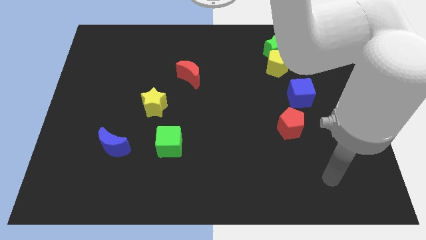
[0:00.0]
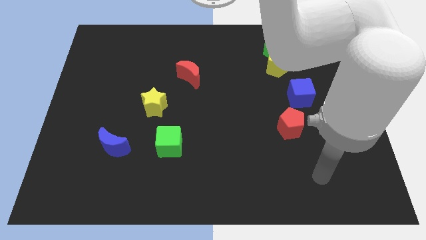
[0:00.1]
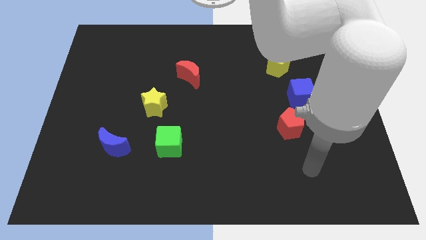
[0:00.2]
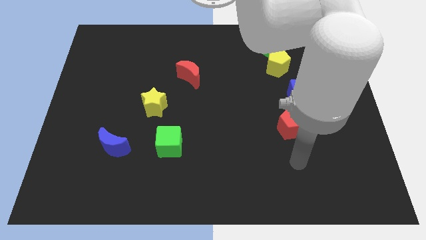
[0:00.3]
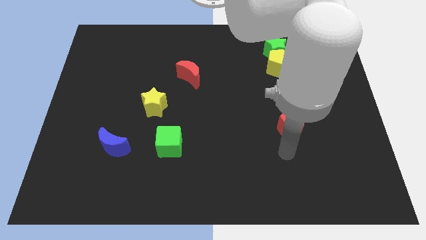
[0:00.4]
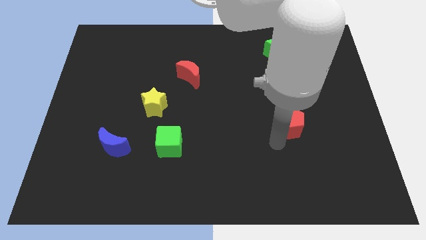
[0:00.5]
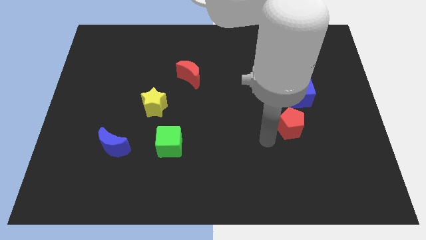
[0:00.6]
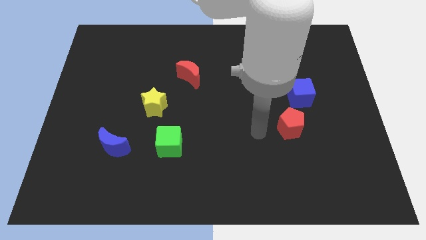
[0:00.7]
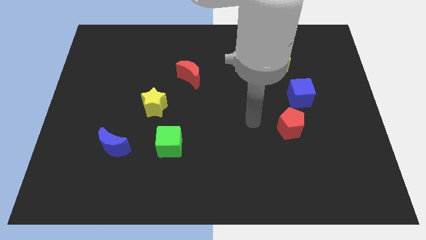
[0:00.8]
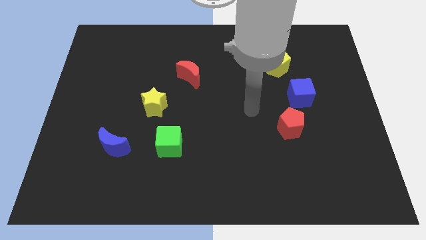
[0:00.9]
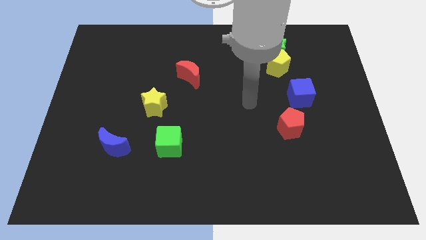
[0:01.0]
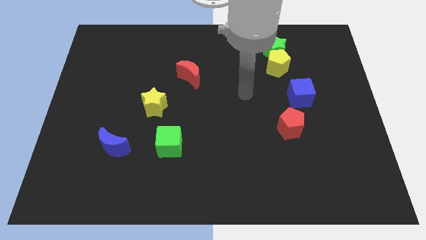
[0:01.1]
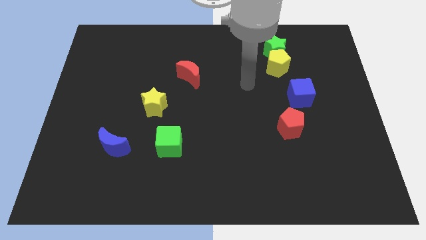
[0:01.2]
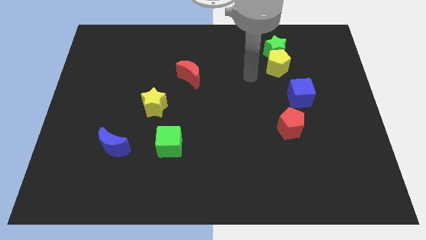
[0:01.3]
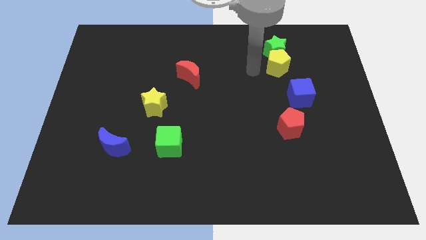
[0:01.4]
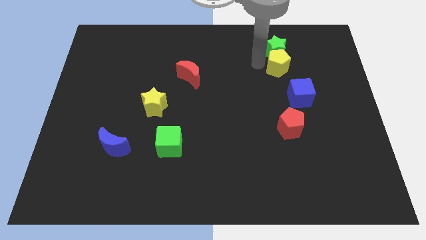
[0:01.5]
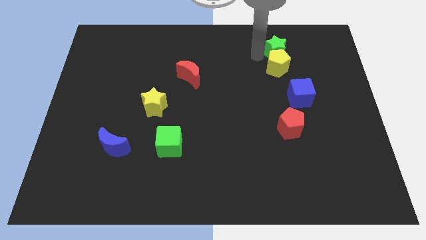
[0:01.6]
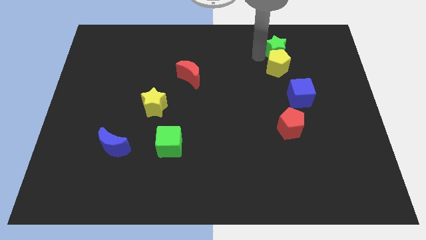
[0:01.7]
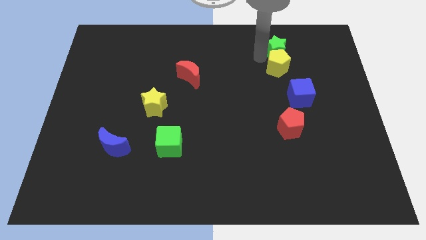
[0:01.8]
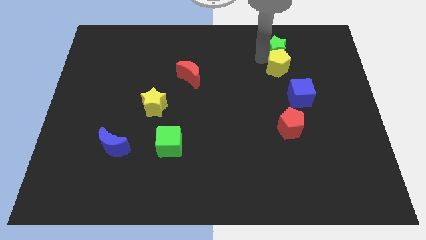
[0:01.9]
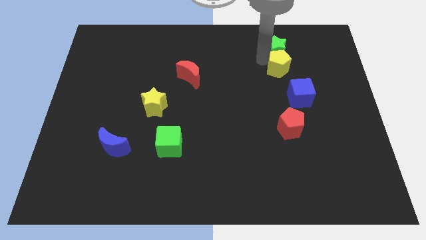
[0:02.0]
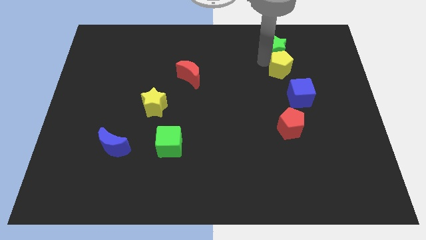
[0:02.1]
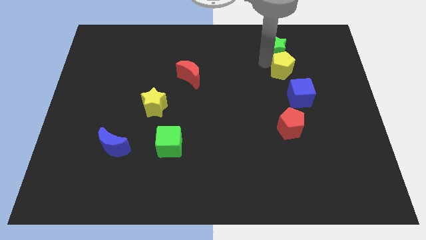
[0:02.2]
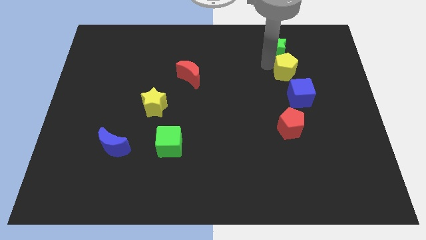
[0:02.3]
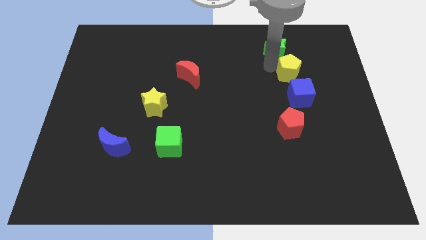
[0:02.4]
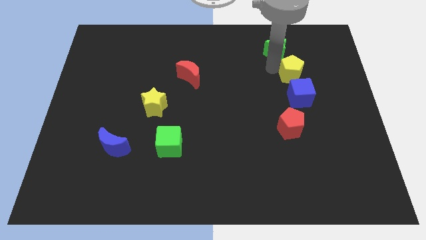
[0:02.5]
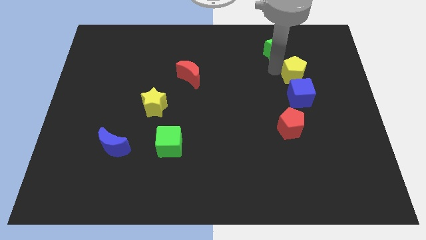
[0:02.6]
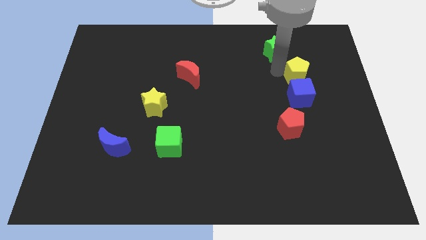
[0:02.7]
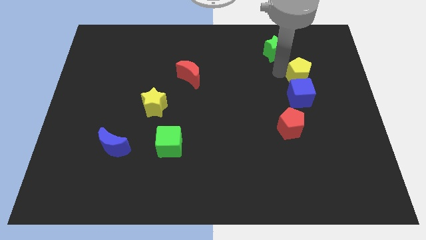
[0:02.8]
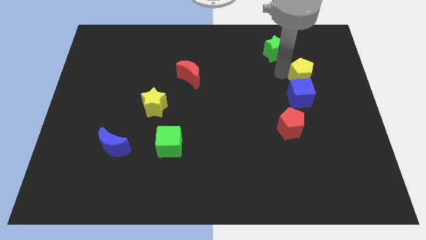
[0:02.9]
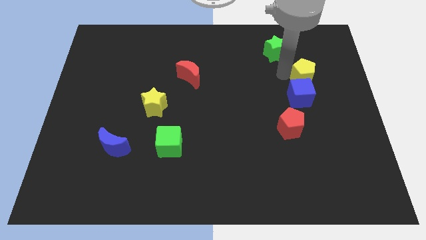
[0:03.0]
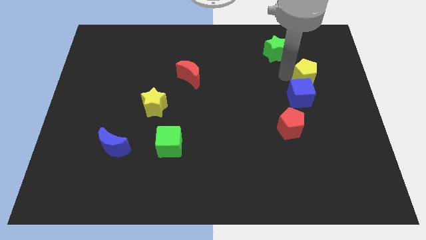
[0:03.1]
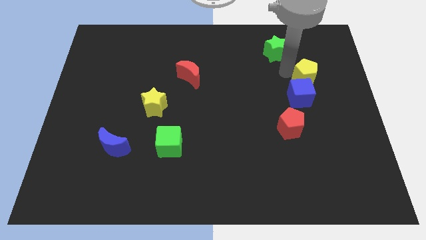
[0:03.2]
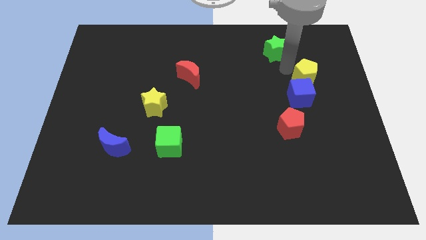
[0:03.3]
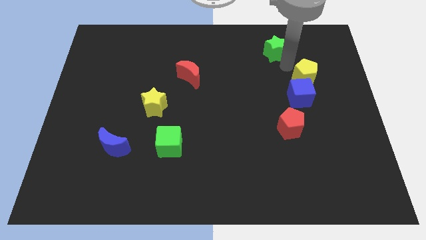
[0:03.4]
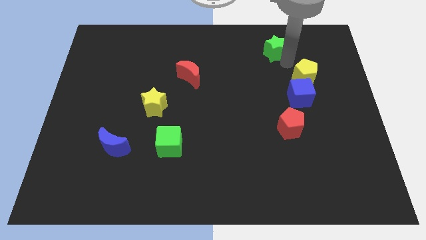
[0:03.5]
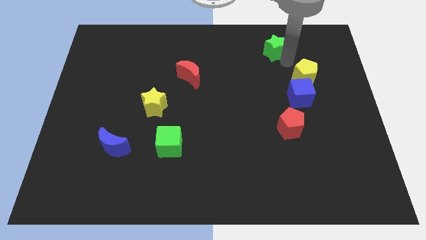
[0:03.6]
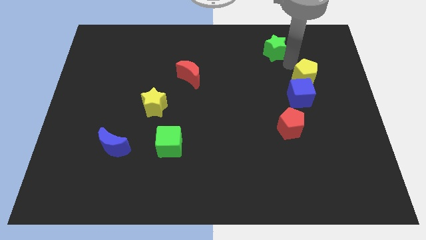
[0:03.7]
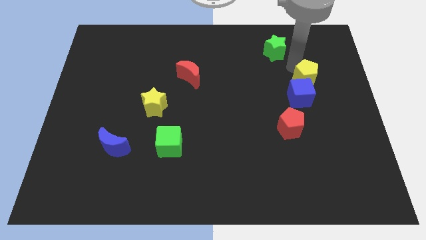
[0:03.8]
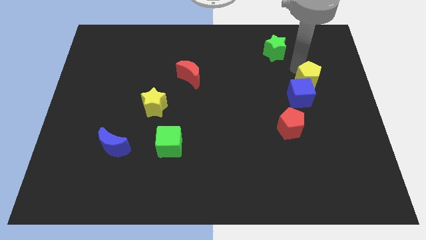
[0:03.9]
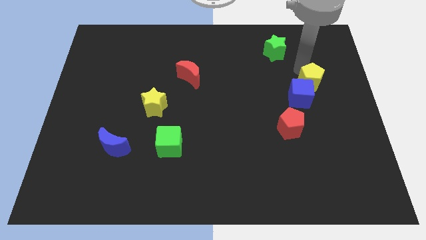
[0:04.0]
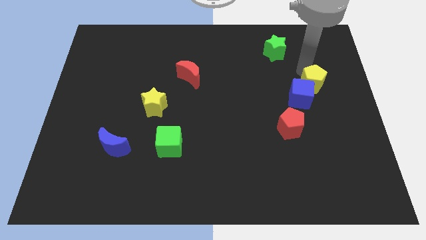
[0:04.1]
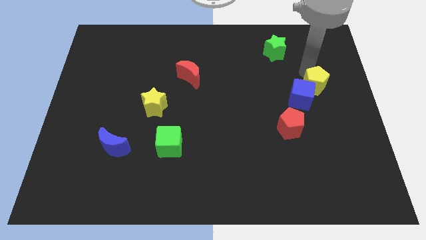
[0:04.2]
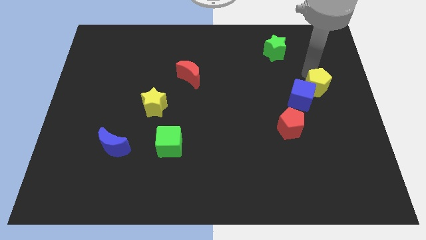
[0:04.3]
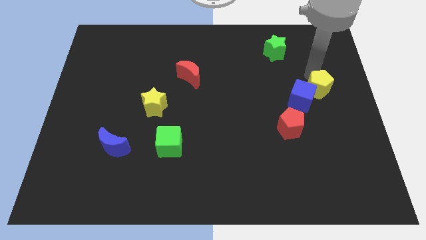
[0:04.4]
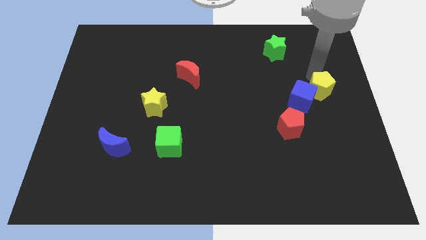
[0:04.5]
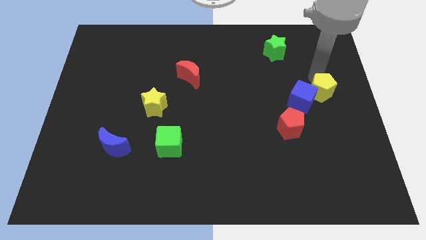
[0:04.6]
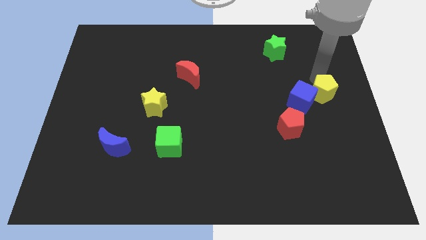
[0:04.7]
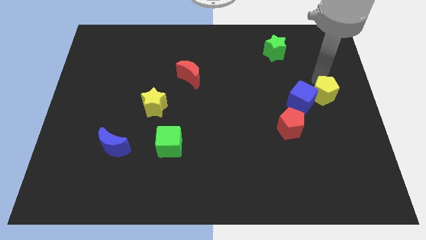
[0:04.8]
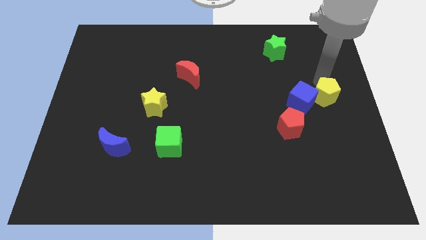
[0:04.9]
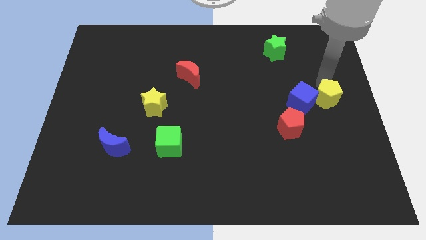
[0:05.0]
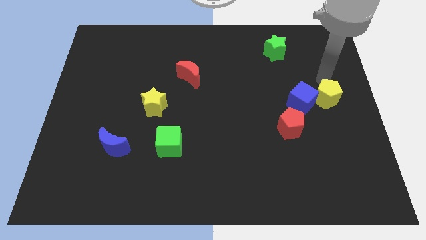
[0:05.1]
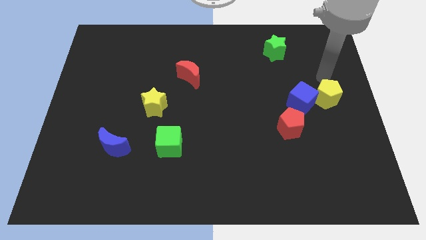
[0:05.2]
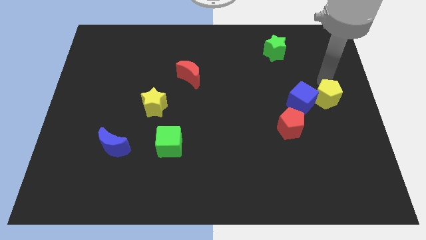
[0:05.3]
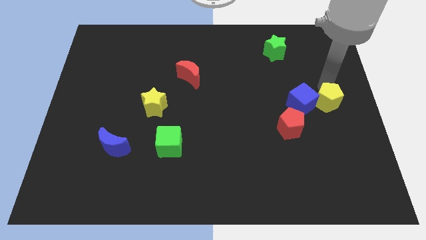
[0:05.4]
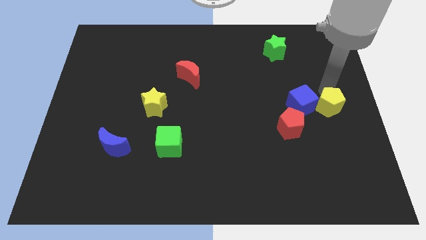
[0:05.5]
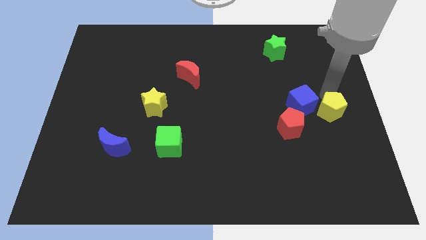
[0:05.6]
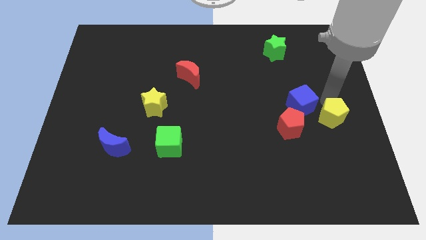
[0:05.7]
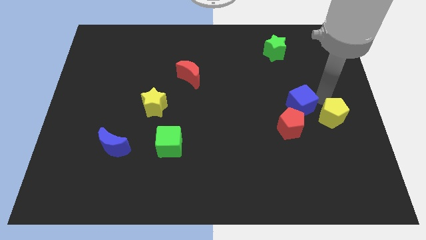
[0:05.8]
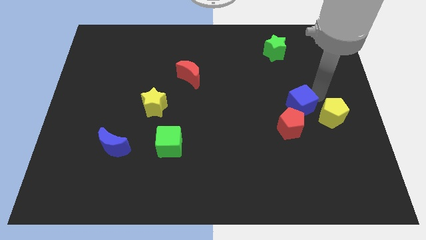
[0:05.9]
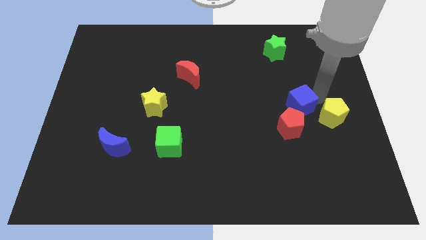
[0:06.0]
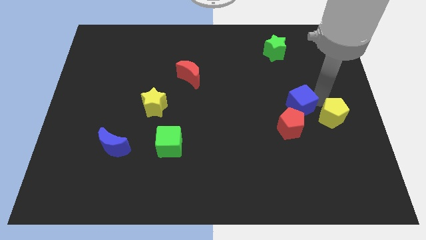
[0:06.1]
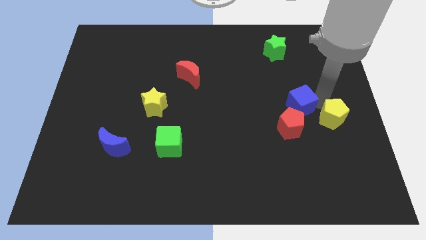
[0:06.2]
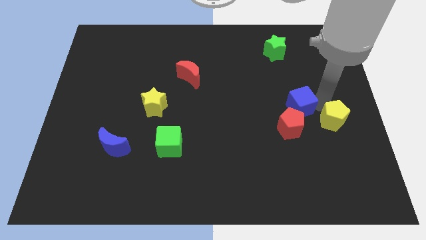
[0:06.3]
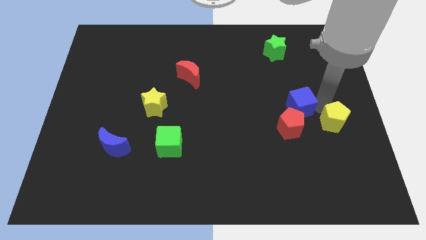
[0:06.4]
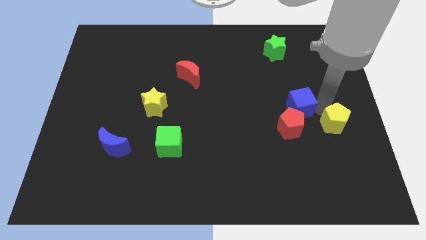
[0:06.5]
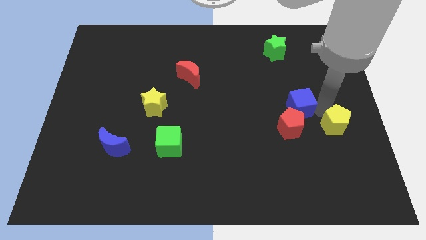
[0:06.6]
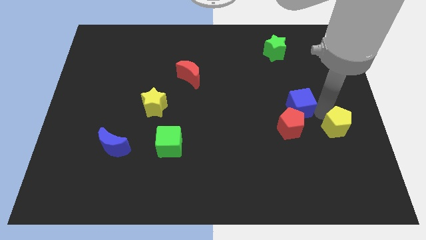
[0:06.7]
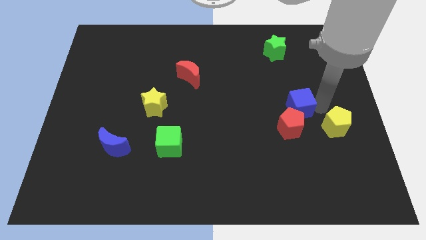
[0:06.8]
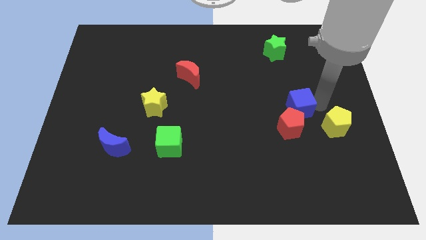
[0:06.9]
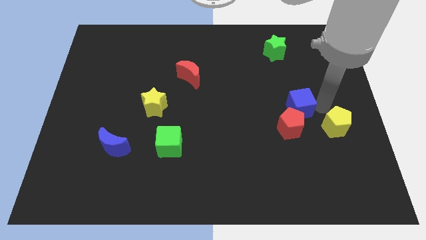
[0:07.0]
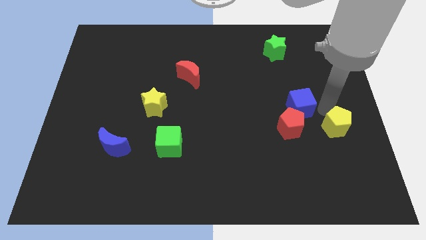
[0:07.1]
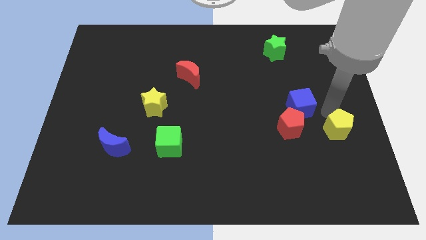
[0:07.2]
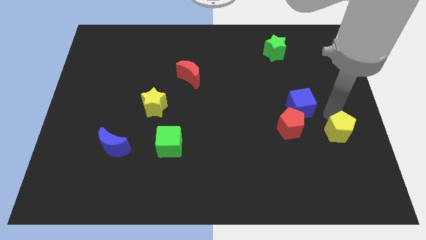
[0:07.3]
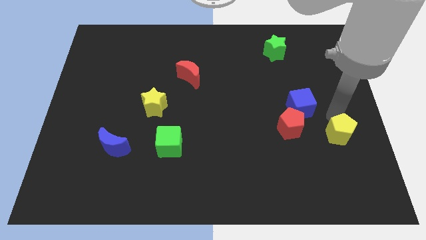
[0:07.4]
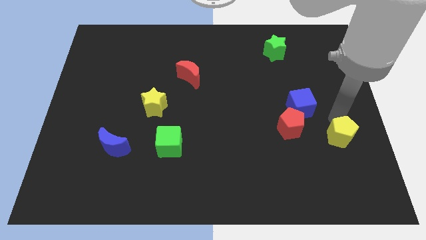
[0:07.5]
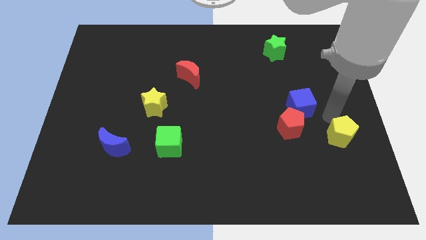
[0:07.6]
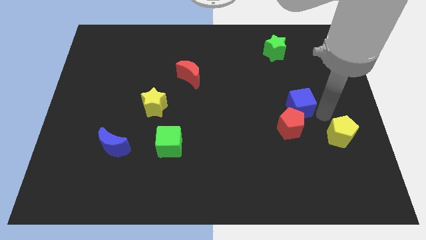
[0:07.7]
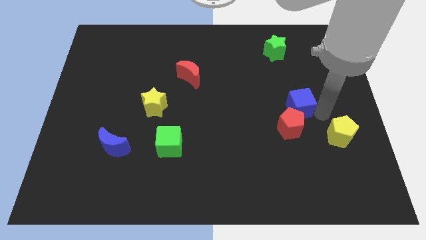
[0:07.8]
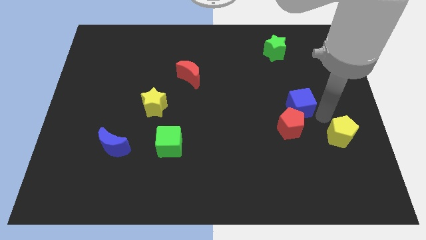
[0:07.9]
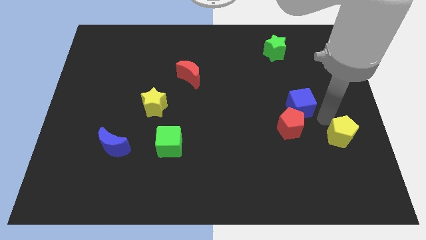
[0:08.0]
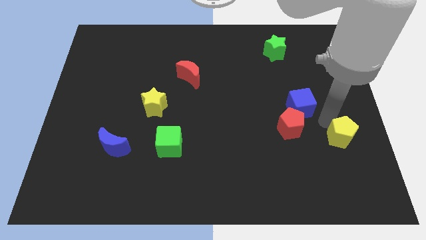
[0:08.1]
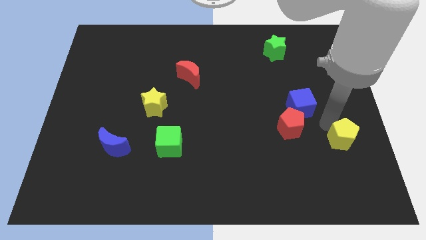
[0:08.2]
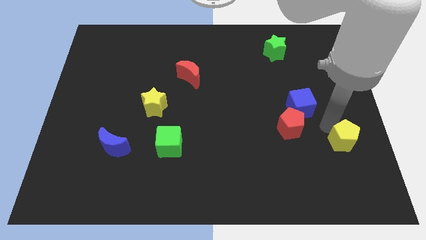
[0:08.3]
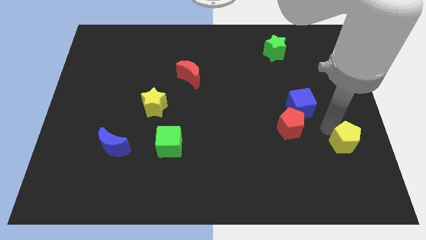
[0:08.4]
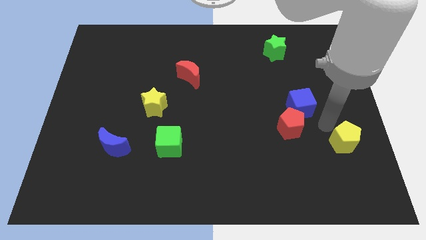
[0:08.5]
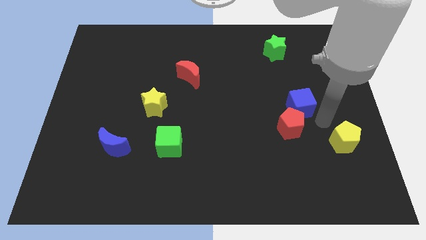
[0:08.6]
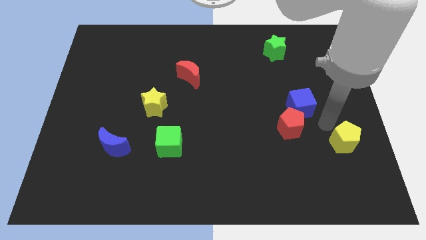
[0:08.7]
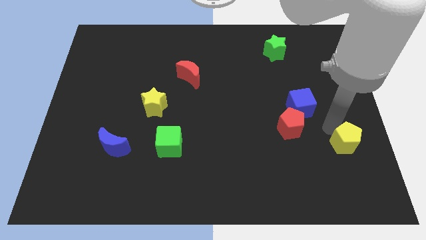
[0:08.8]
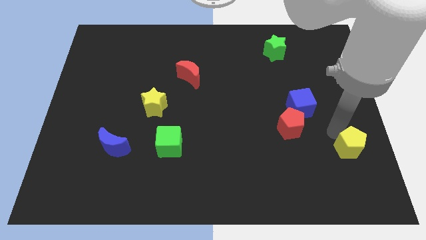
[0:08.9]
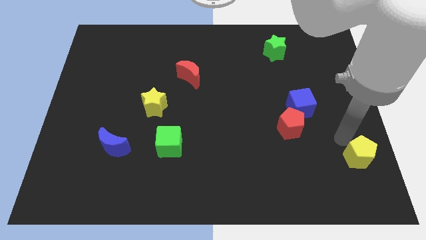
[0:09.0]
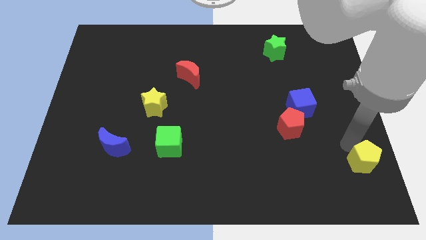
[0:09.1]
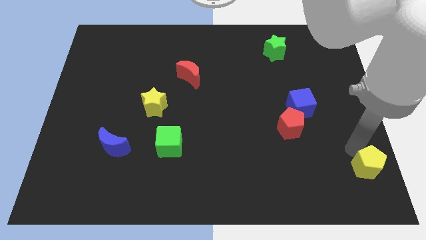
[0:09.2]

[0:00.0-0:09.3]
move the yellow pentagon to the lower right corner
